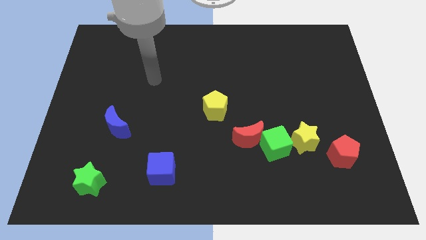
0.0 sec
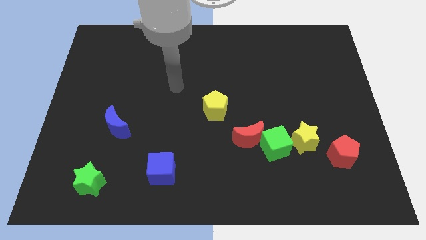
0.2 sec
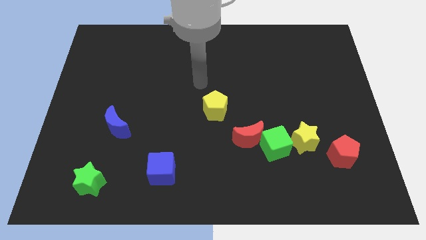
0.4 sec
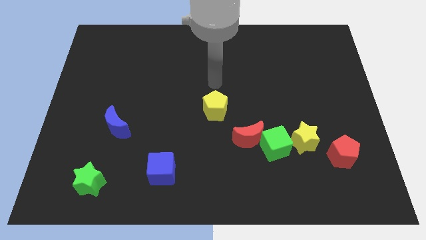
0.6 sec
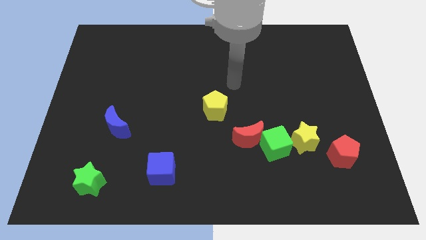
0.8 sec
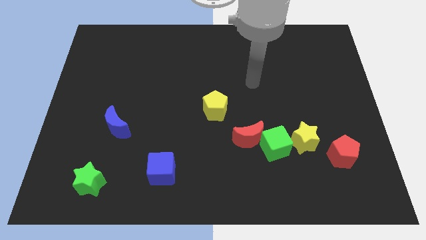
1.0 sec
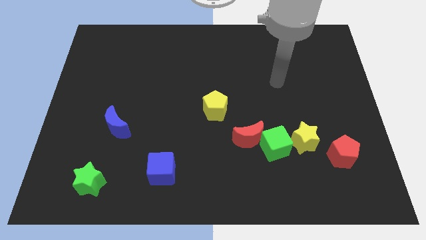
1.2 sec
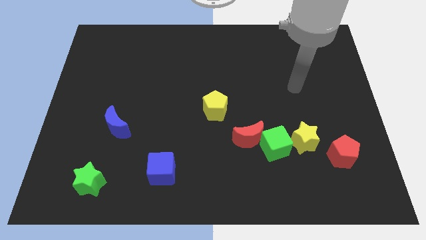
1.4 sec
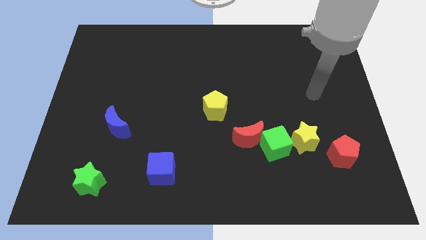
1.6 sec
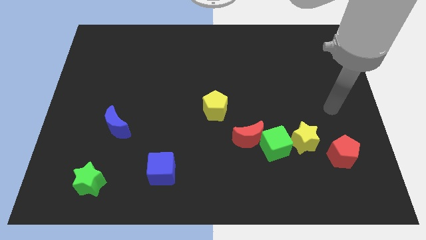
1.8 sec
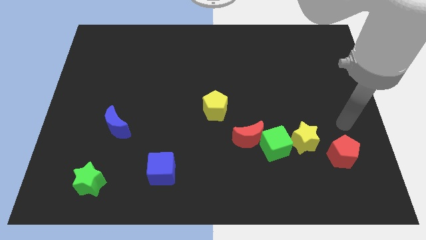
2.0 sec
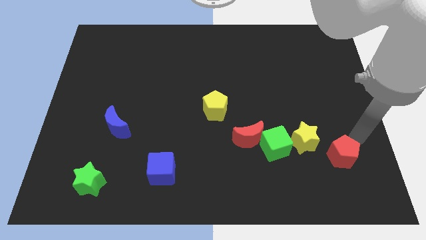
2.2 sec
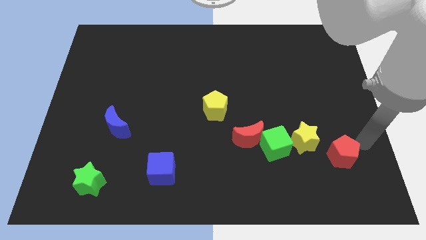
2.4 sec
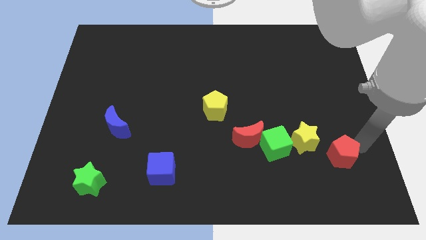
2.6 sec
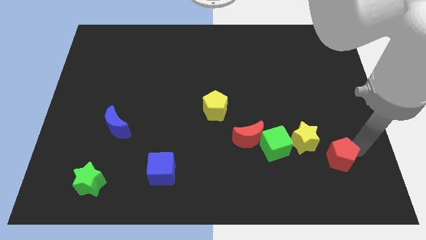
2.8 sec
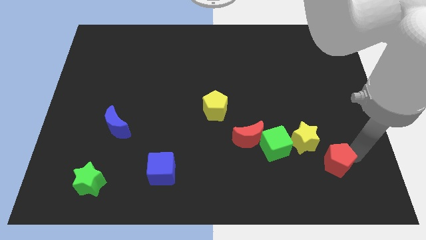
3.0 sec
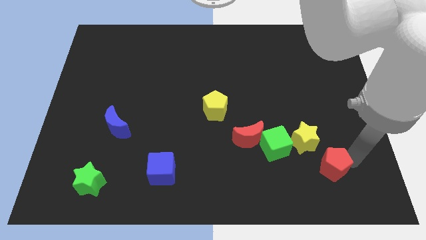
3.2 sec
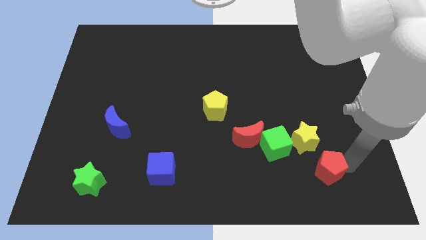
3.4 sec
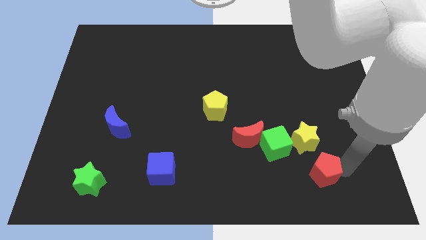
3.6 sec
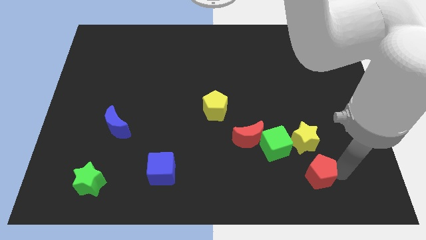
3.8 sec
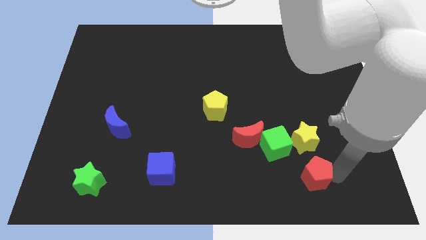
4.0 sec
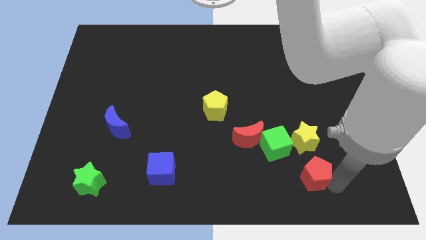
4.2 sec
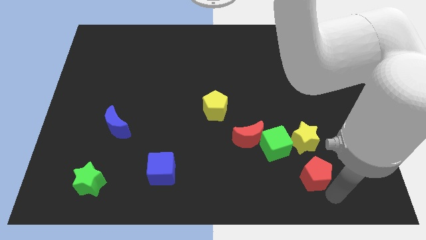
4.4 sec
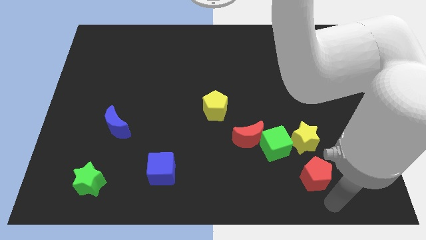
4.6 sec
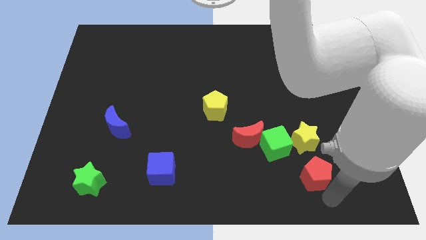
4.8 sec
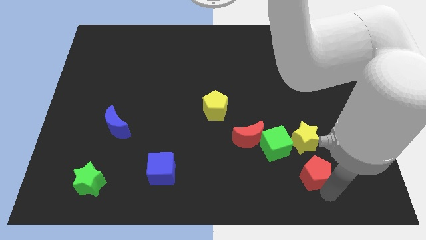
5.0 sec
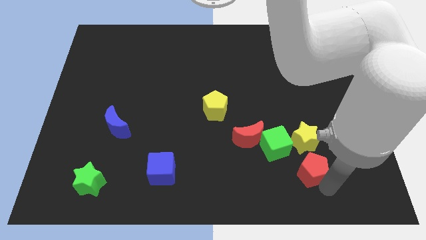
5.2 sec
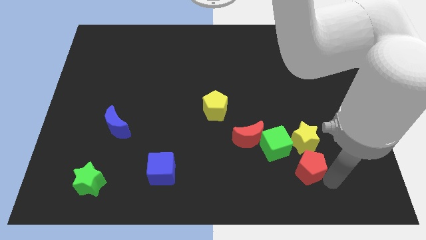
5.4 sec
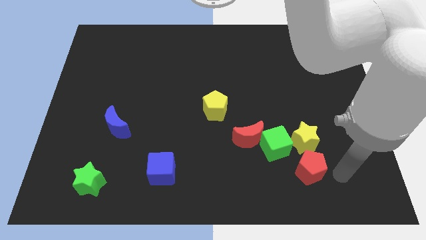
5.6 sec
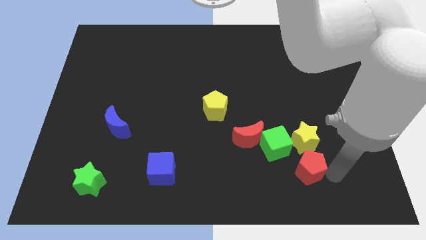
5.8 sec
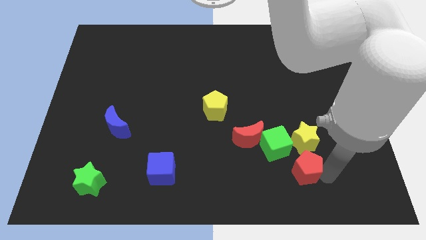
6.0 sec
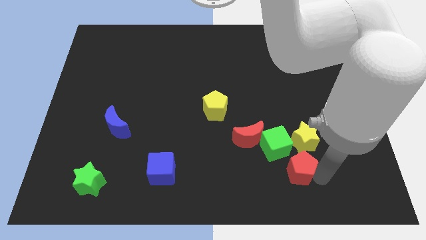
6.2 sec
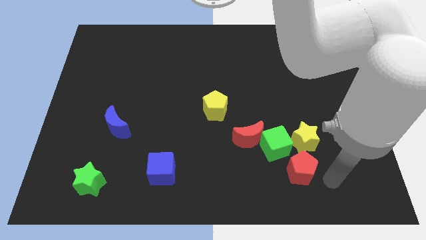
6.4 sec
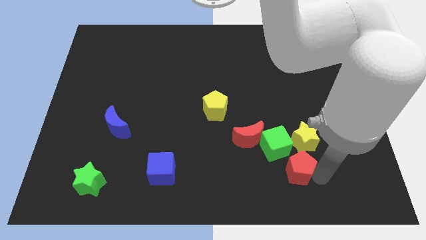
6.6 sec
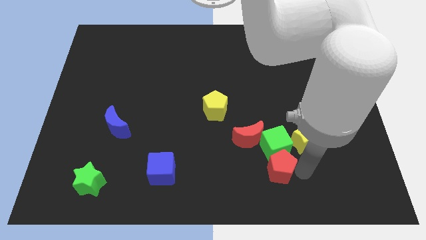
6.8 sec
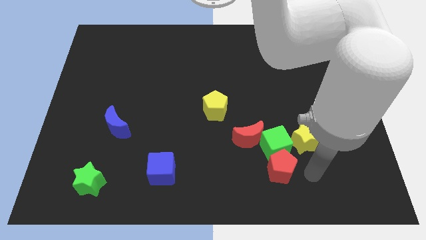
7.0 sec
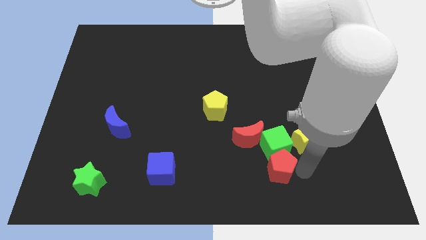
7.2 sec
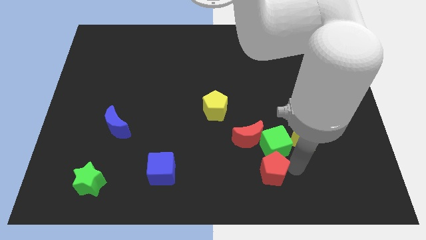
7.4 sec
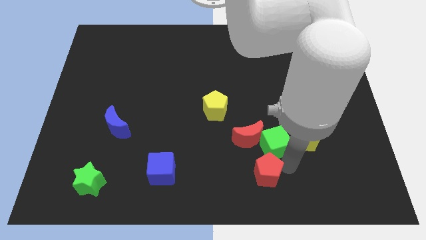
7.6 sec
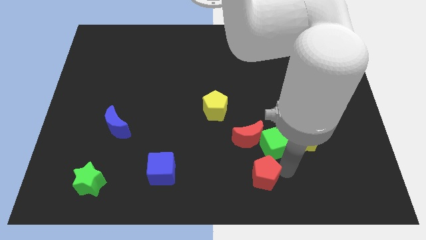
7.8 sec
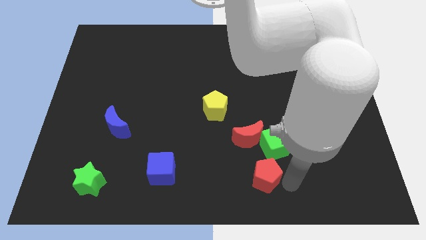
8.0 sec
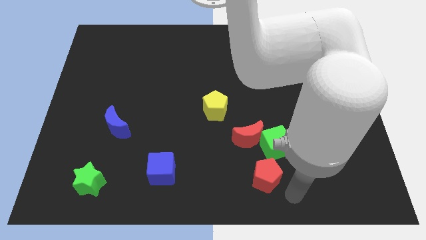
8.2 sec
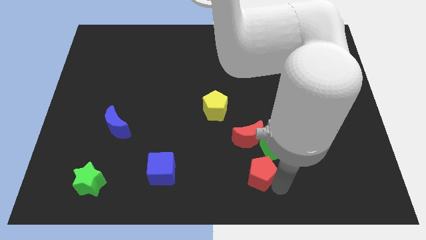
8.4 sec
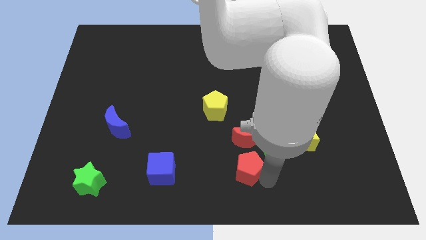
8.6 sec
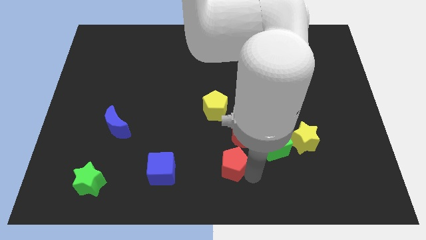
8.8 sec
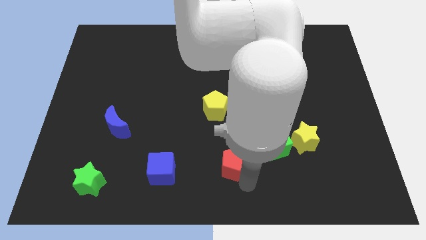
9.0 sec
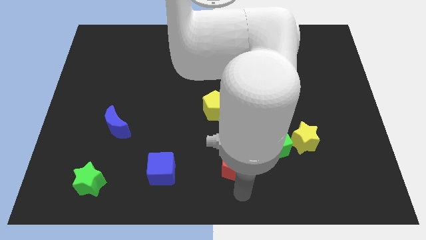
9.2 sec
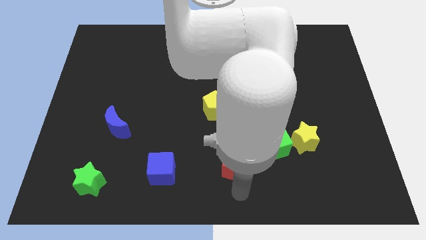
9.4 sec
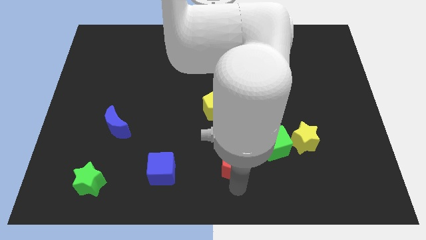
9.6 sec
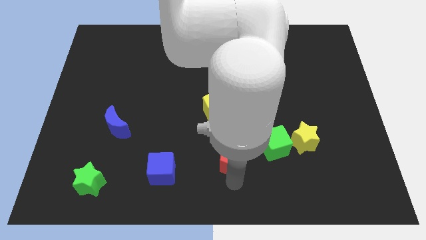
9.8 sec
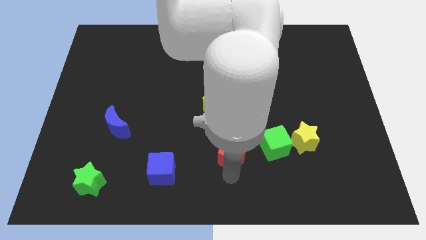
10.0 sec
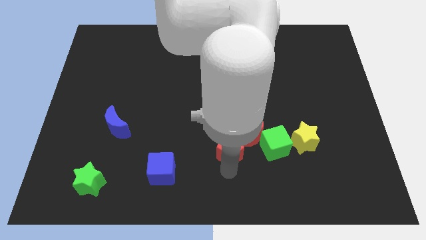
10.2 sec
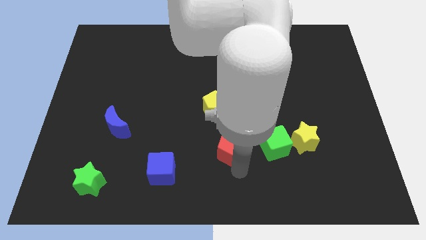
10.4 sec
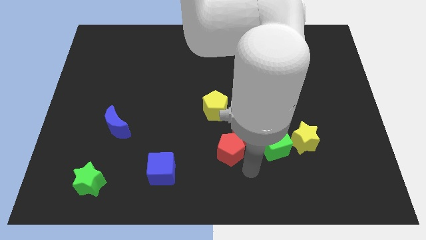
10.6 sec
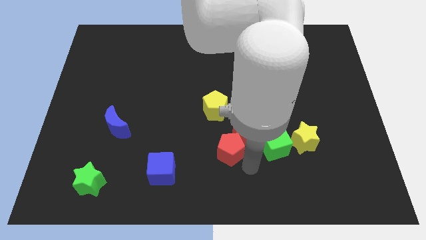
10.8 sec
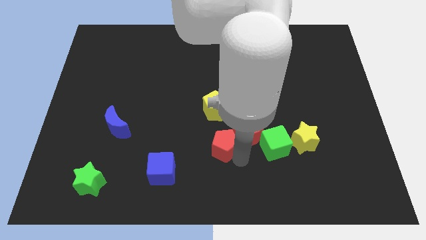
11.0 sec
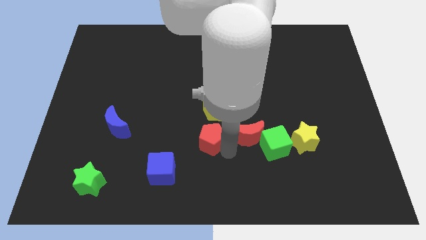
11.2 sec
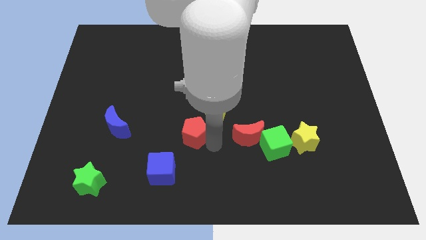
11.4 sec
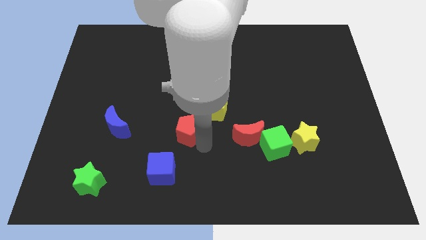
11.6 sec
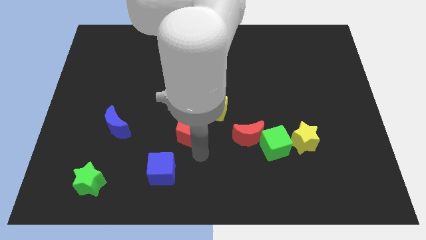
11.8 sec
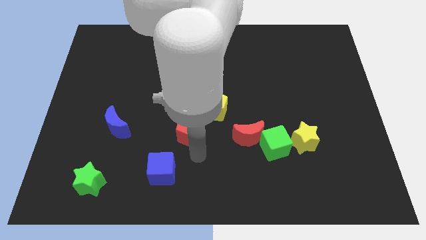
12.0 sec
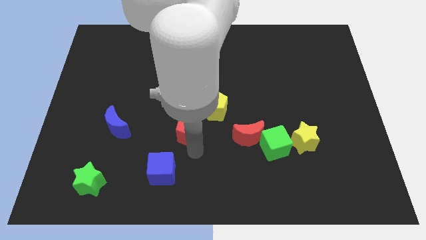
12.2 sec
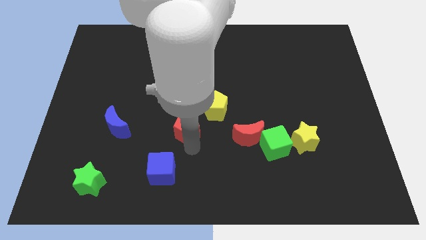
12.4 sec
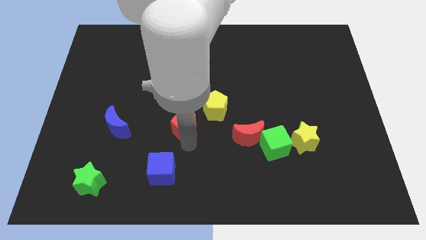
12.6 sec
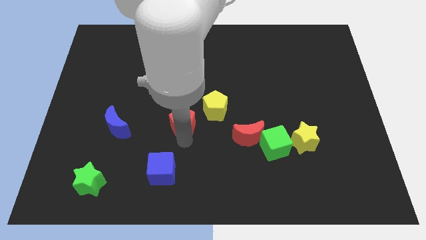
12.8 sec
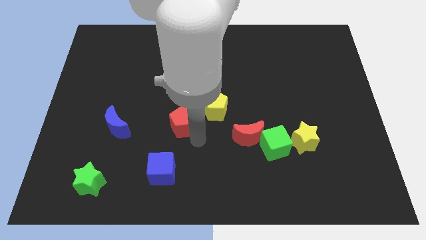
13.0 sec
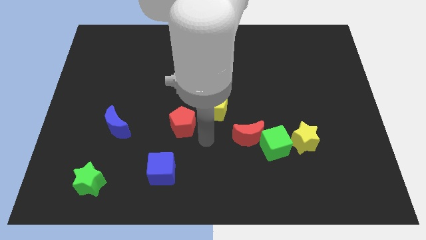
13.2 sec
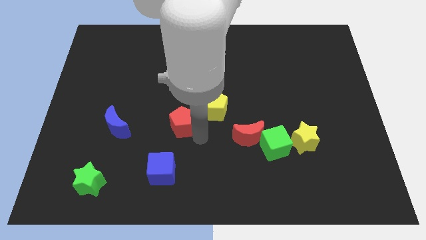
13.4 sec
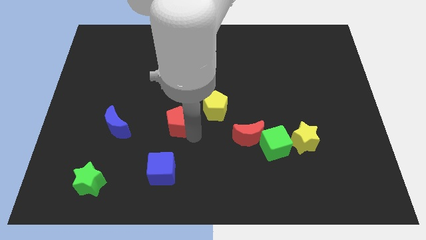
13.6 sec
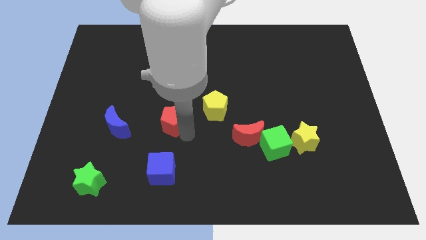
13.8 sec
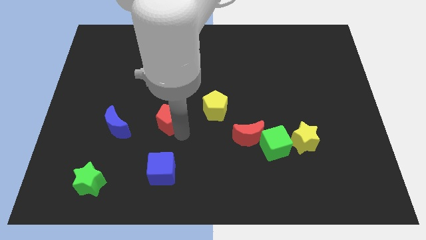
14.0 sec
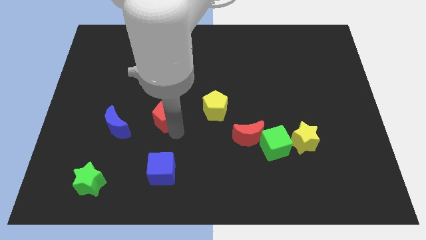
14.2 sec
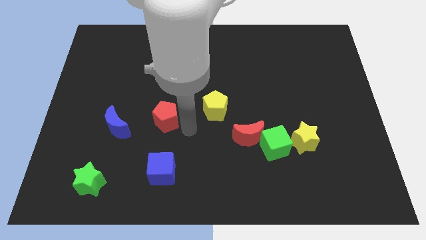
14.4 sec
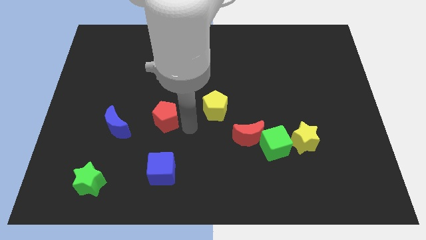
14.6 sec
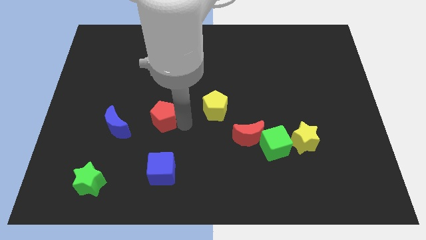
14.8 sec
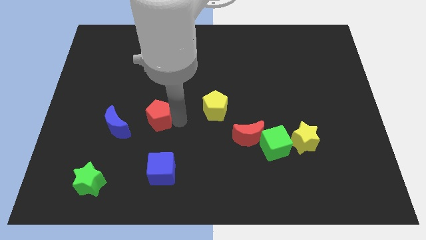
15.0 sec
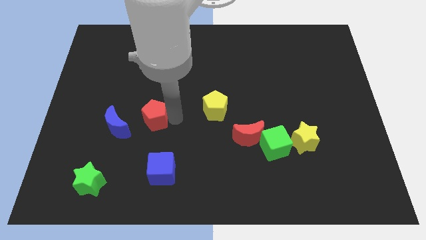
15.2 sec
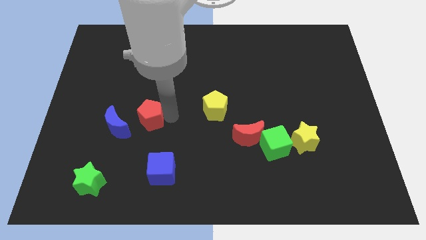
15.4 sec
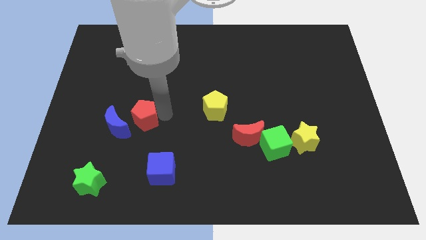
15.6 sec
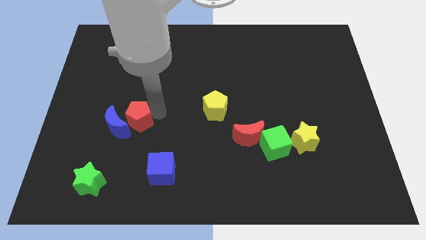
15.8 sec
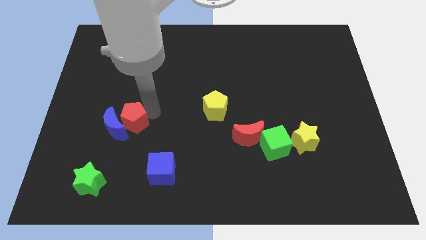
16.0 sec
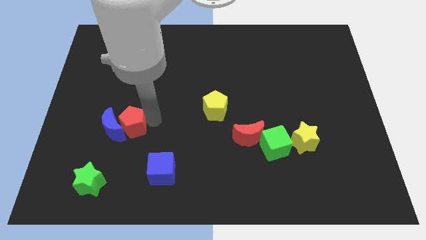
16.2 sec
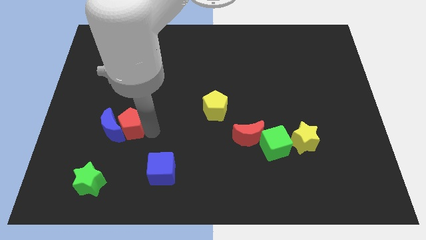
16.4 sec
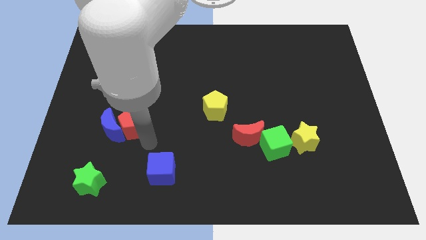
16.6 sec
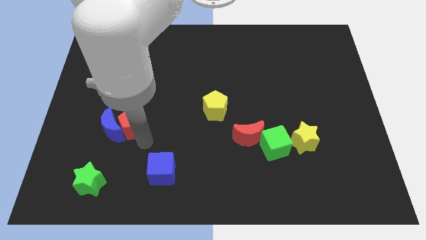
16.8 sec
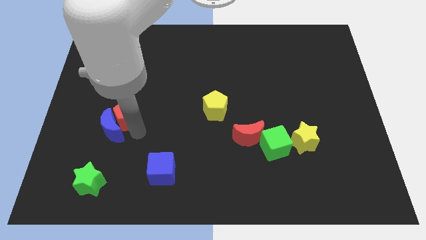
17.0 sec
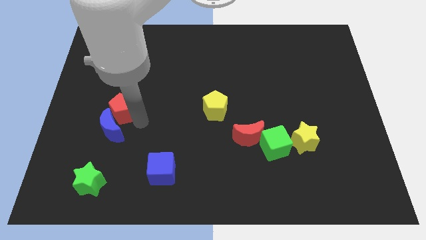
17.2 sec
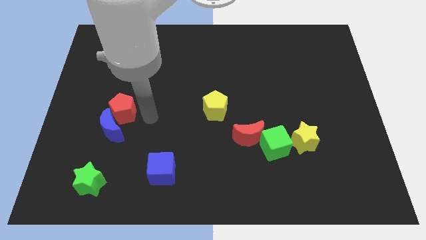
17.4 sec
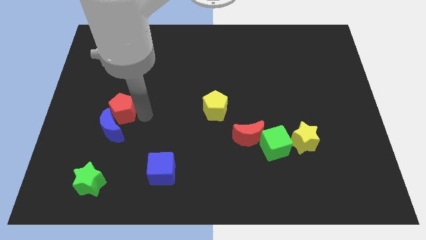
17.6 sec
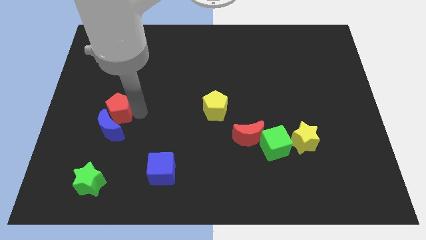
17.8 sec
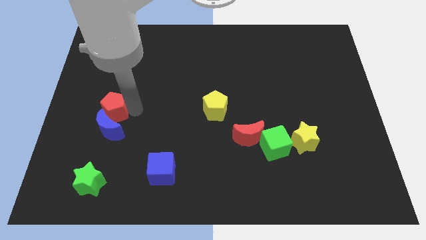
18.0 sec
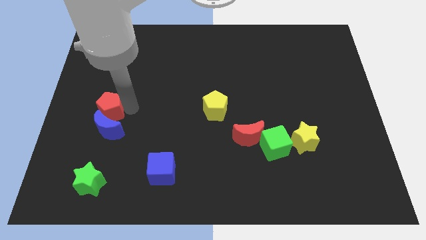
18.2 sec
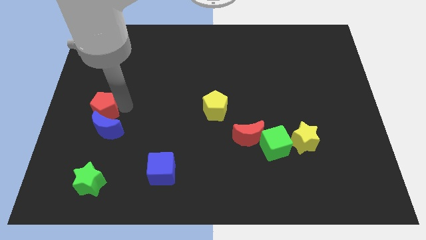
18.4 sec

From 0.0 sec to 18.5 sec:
push the red pentagon to the center left
